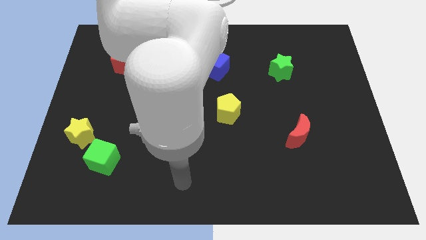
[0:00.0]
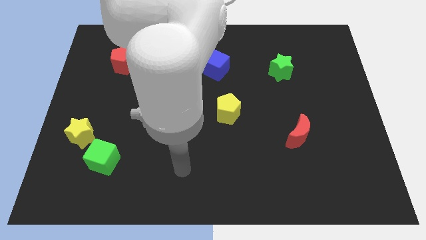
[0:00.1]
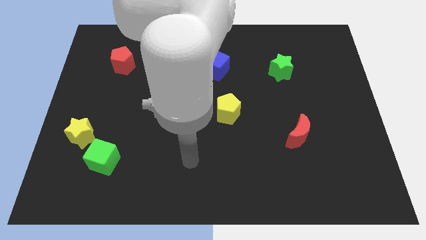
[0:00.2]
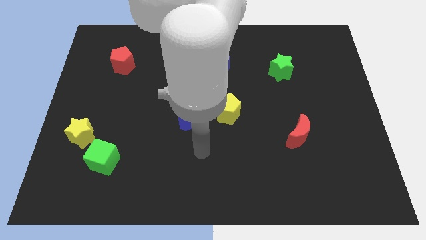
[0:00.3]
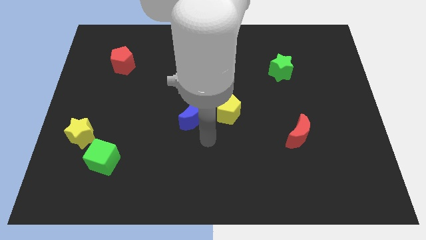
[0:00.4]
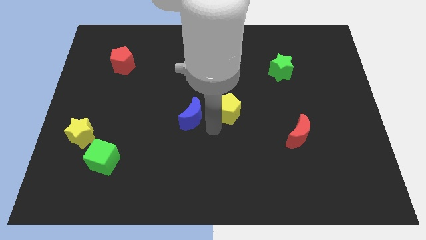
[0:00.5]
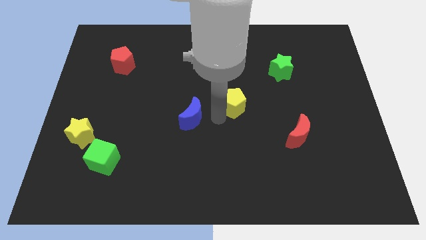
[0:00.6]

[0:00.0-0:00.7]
move the blue moon away from the yellow pentagon

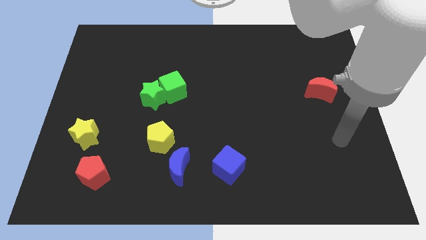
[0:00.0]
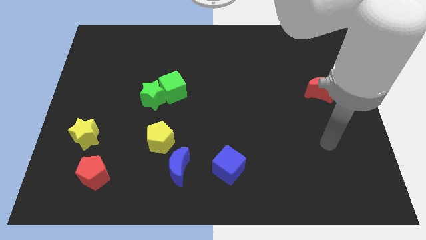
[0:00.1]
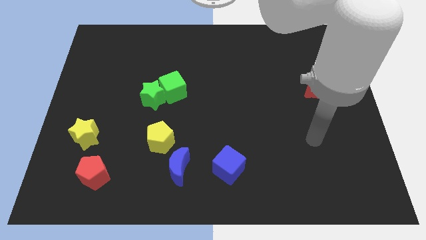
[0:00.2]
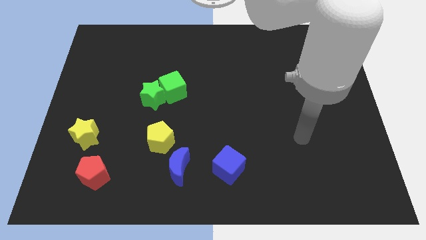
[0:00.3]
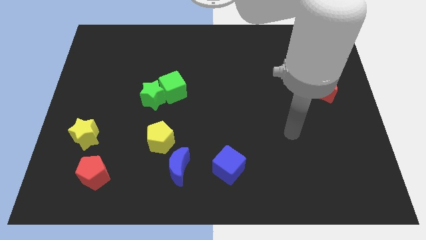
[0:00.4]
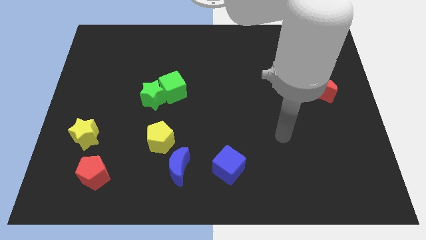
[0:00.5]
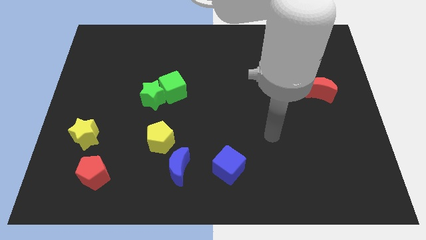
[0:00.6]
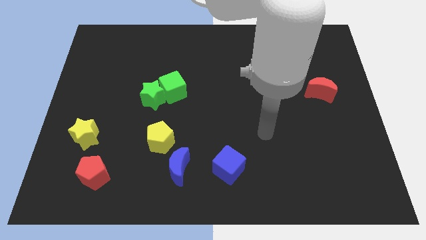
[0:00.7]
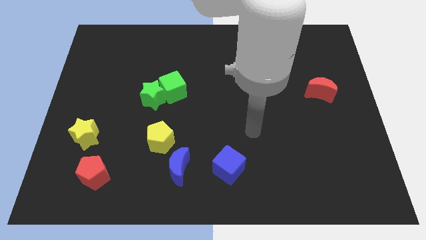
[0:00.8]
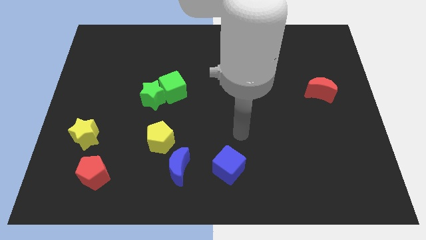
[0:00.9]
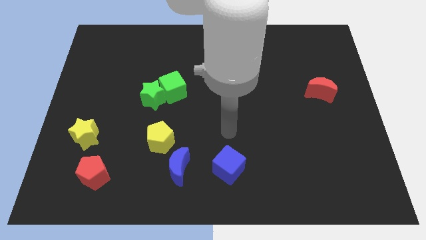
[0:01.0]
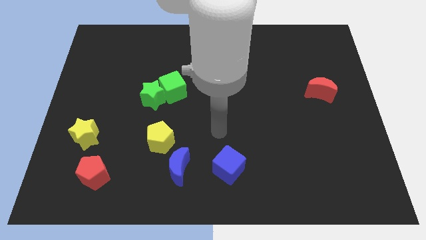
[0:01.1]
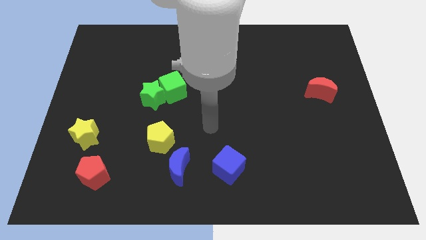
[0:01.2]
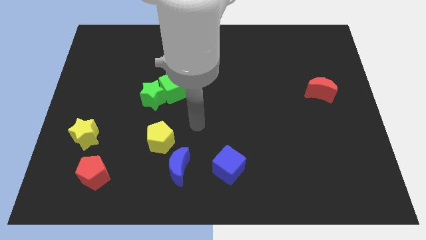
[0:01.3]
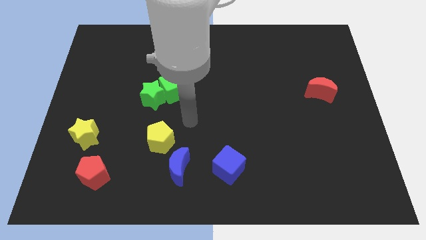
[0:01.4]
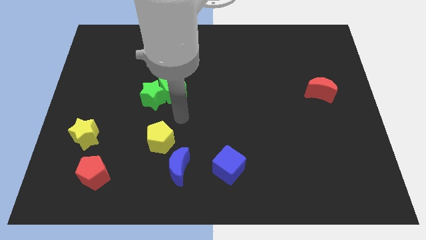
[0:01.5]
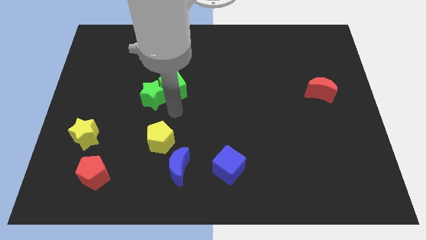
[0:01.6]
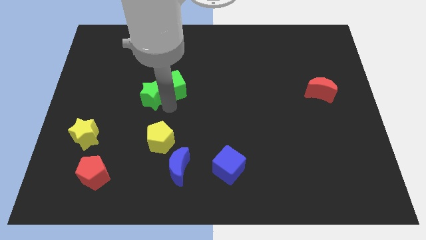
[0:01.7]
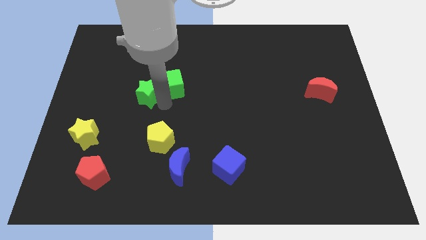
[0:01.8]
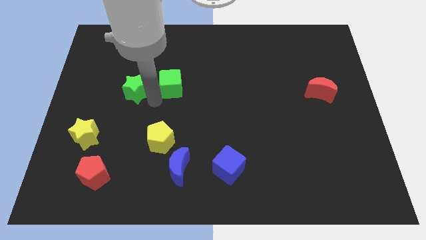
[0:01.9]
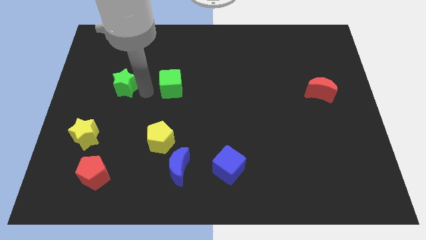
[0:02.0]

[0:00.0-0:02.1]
pull the green cube apart from the green star

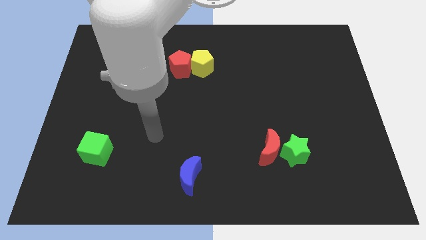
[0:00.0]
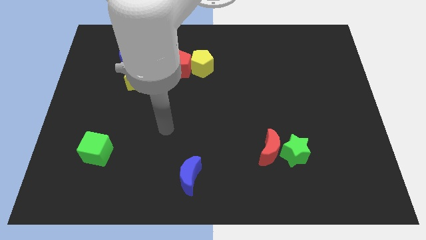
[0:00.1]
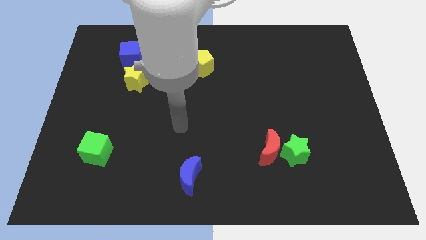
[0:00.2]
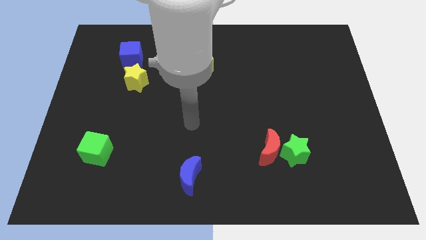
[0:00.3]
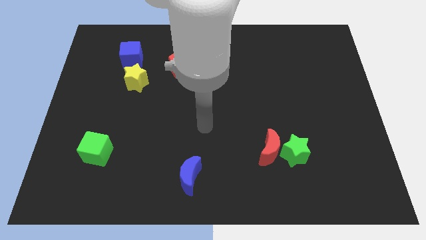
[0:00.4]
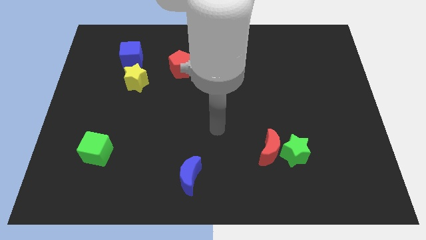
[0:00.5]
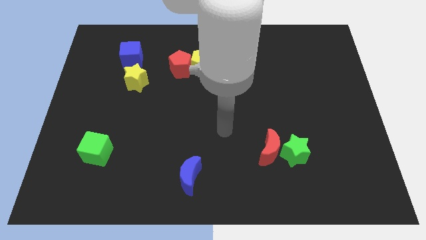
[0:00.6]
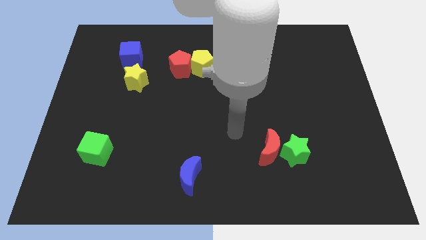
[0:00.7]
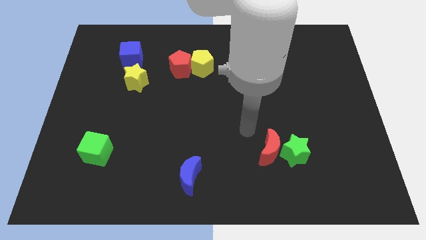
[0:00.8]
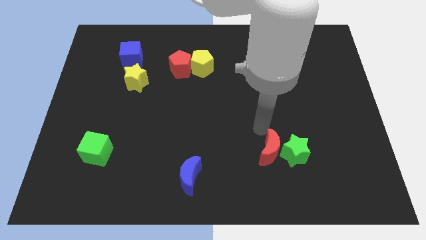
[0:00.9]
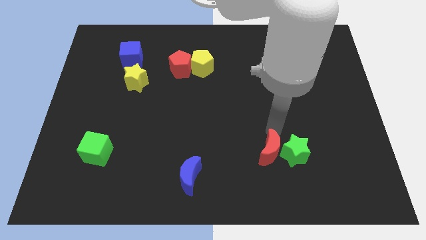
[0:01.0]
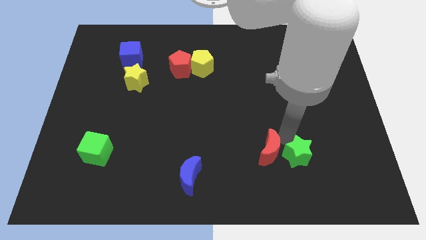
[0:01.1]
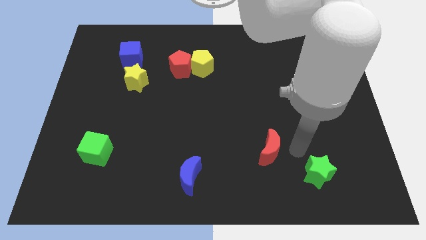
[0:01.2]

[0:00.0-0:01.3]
move the red moon away from the green star

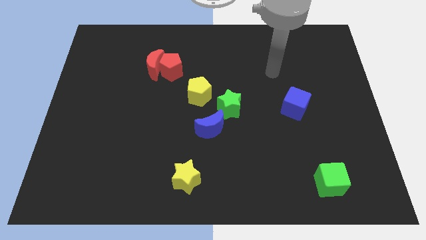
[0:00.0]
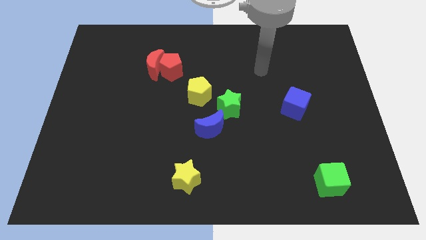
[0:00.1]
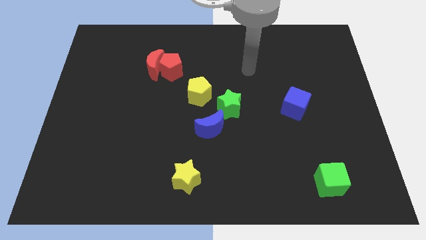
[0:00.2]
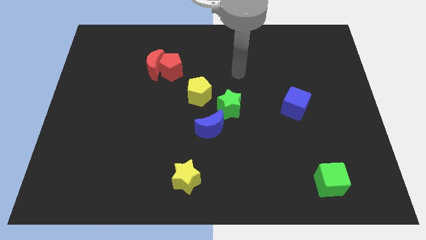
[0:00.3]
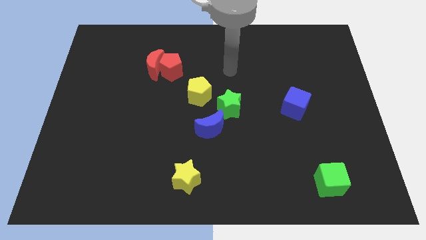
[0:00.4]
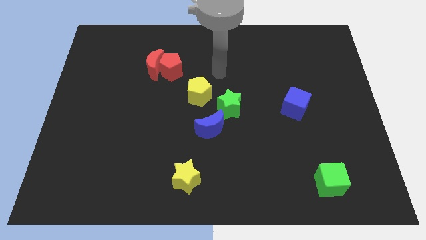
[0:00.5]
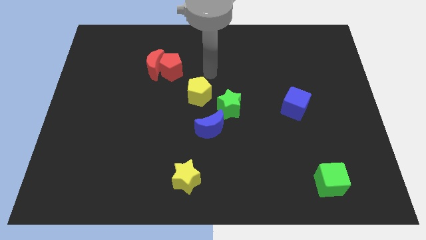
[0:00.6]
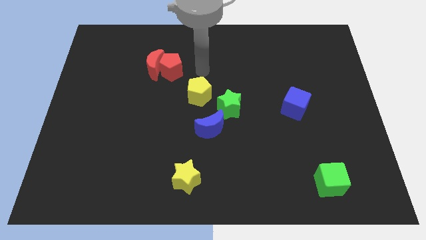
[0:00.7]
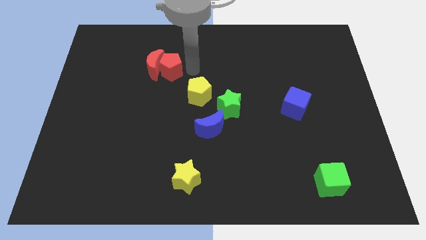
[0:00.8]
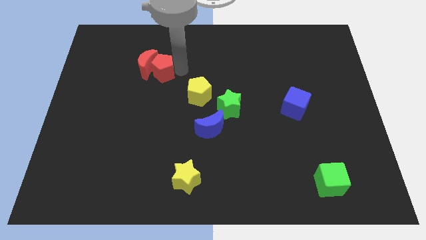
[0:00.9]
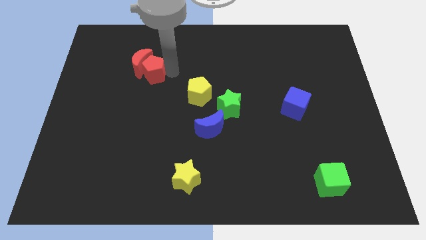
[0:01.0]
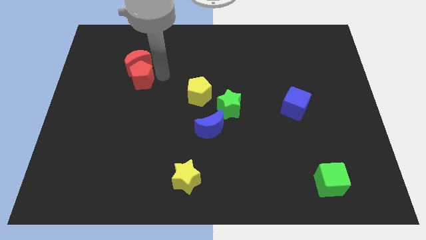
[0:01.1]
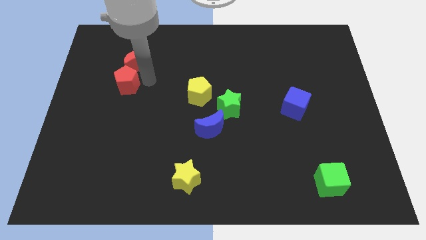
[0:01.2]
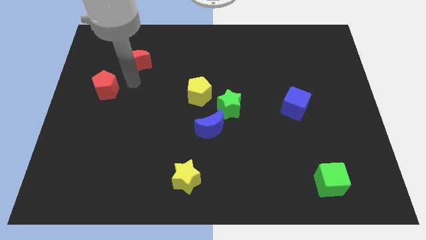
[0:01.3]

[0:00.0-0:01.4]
pull the red moon apart from the red pentagon

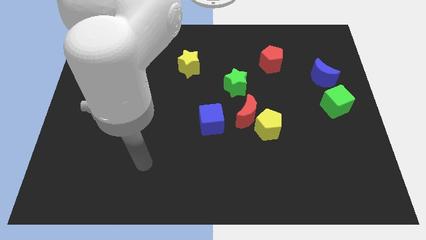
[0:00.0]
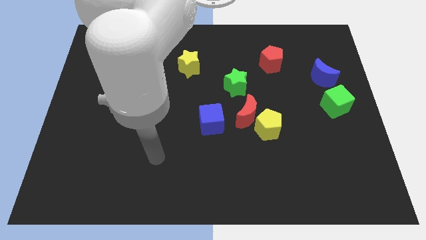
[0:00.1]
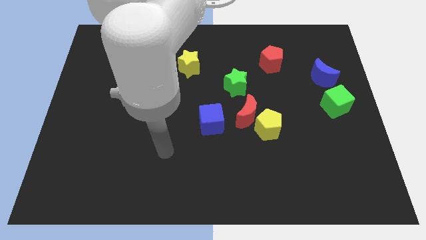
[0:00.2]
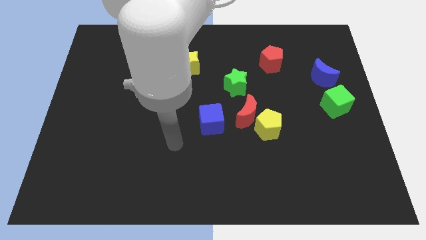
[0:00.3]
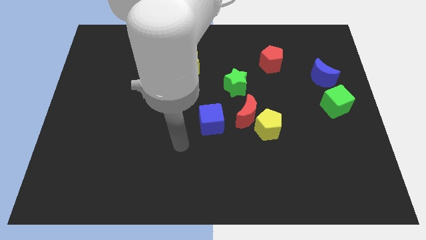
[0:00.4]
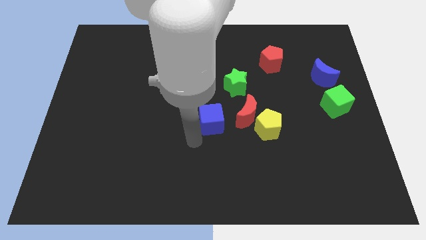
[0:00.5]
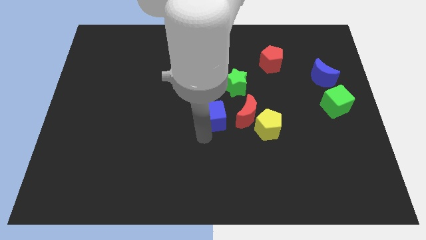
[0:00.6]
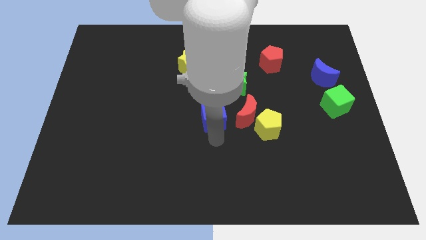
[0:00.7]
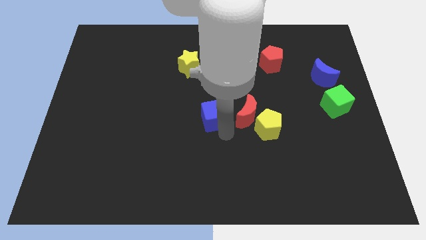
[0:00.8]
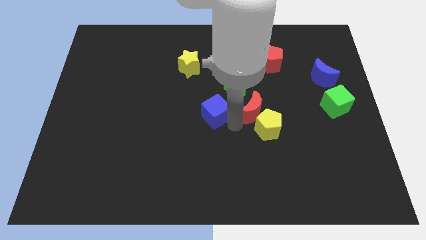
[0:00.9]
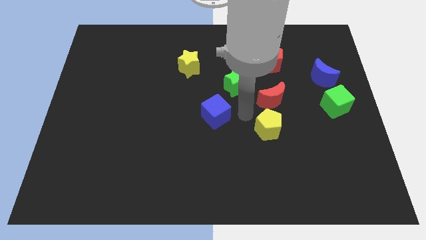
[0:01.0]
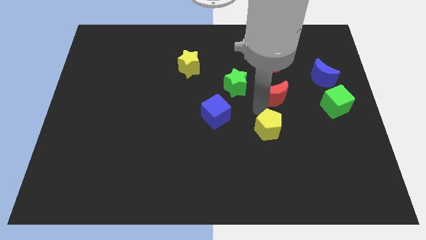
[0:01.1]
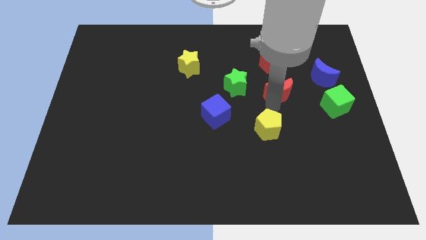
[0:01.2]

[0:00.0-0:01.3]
move the yellow pentagon away from the red moon

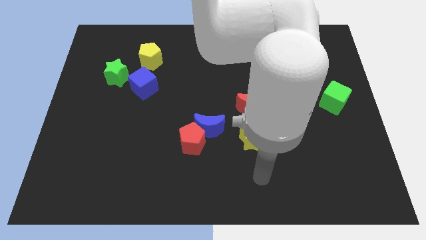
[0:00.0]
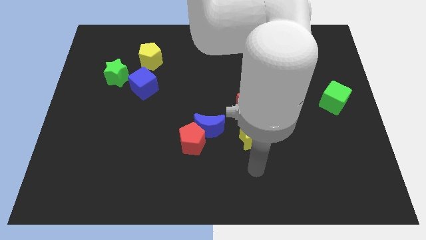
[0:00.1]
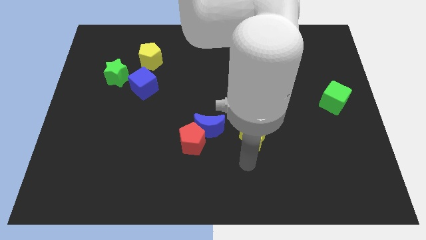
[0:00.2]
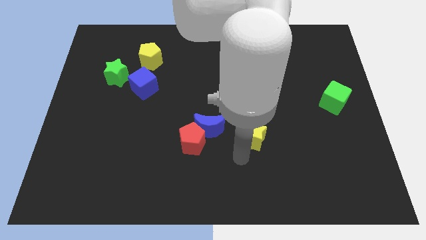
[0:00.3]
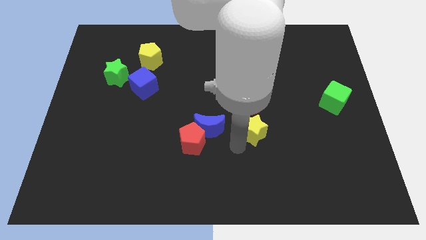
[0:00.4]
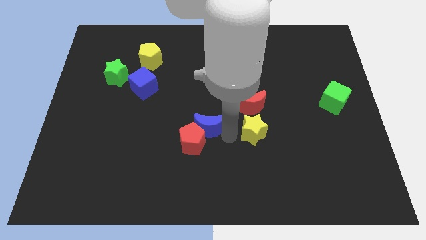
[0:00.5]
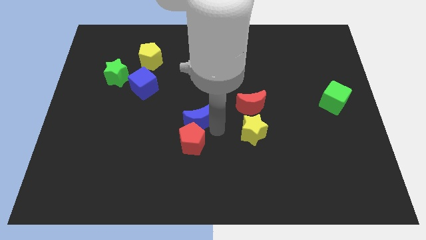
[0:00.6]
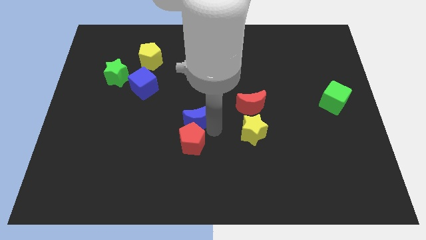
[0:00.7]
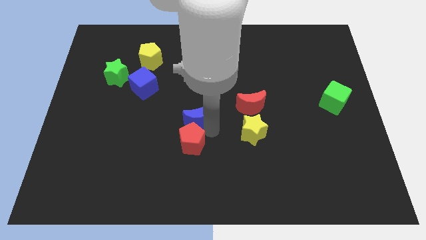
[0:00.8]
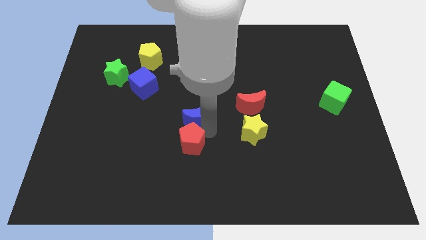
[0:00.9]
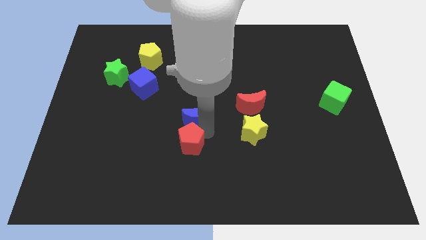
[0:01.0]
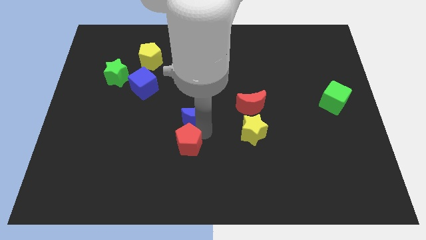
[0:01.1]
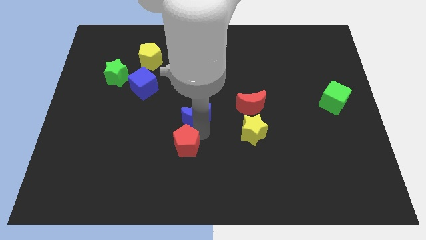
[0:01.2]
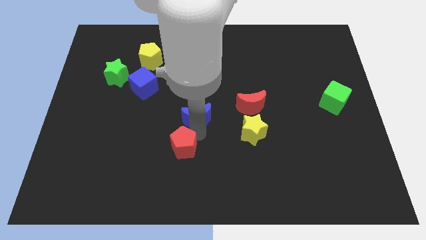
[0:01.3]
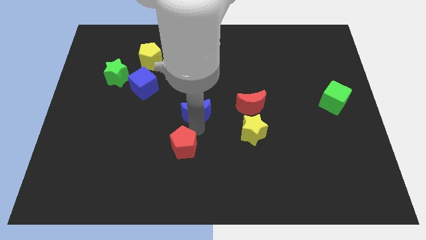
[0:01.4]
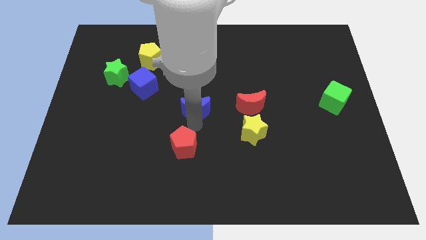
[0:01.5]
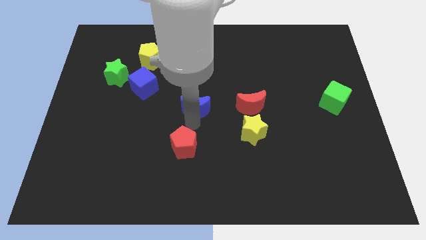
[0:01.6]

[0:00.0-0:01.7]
move the red pentagon away from the blue moon

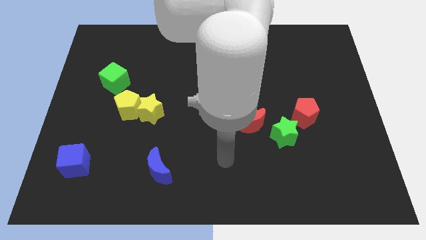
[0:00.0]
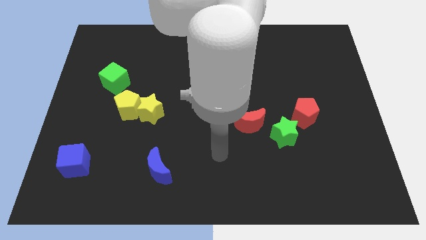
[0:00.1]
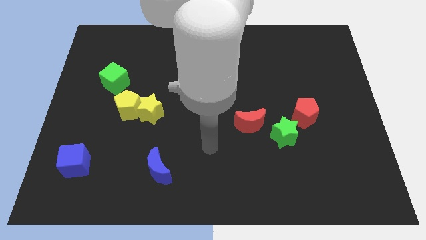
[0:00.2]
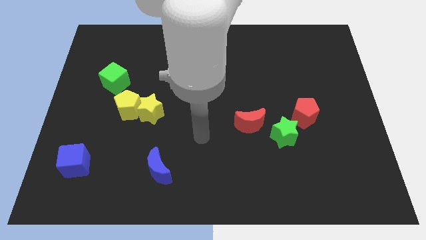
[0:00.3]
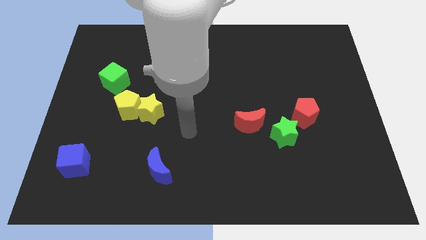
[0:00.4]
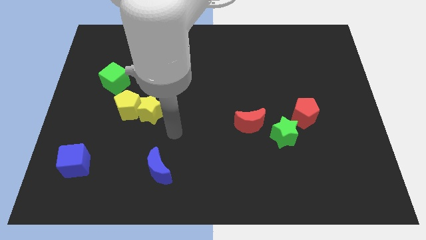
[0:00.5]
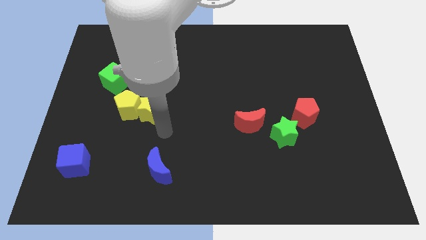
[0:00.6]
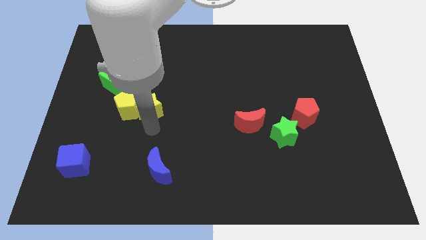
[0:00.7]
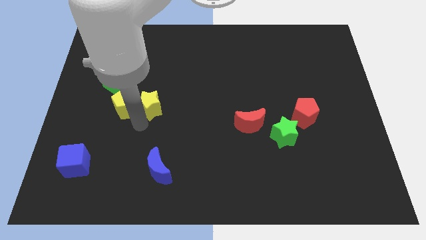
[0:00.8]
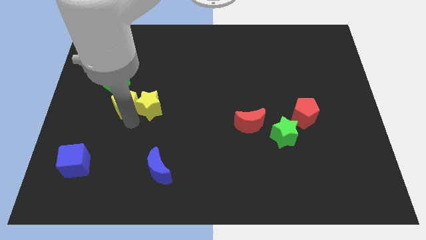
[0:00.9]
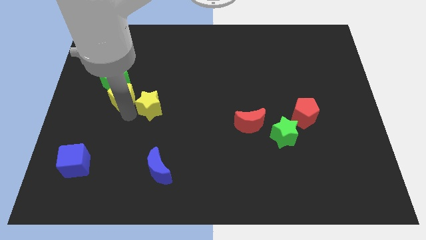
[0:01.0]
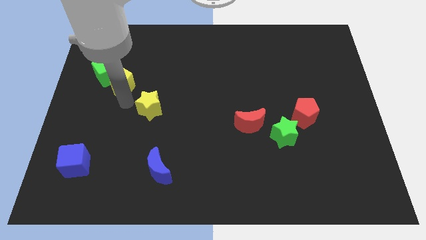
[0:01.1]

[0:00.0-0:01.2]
pull the yellow star apart from the yellow pentagon
